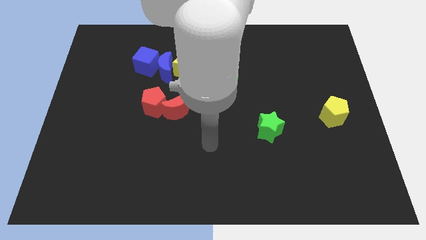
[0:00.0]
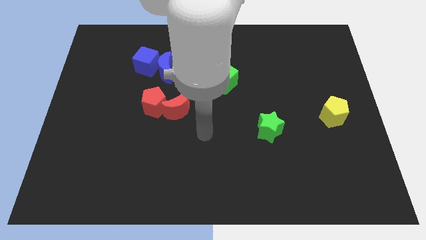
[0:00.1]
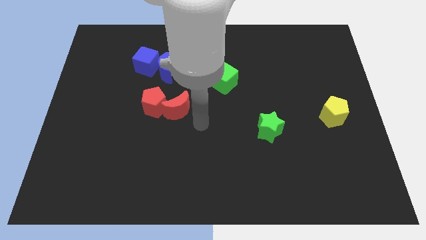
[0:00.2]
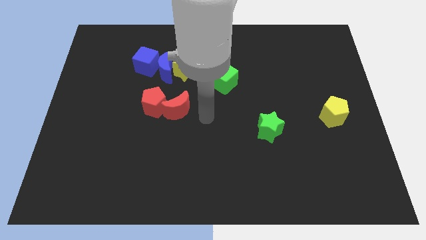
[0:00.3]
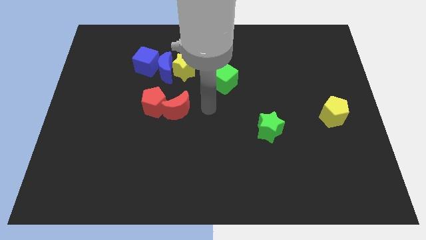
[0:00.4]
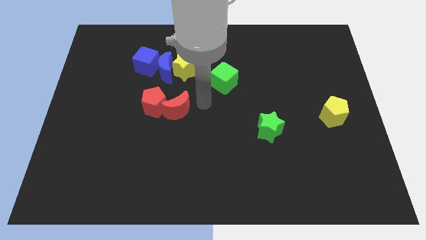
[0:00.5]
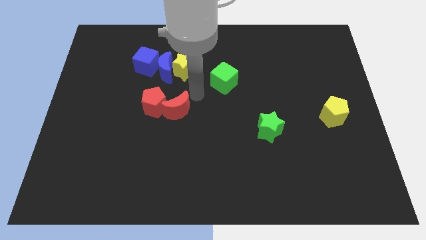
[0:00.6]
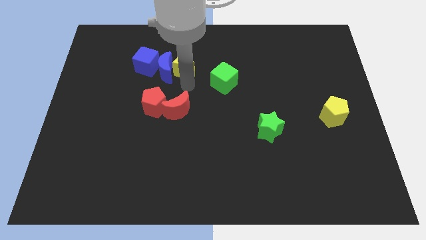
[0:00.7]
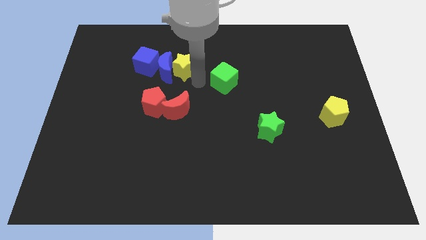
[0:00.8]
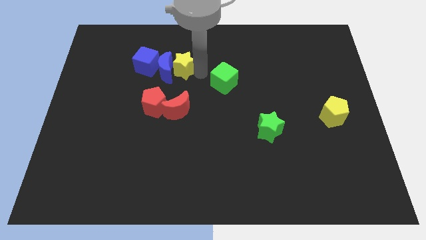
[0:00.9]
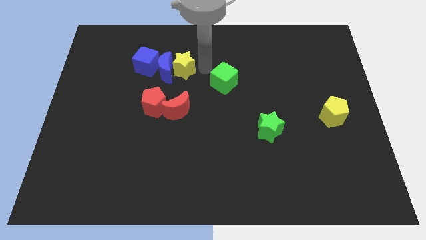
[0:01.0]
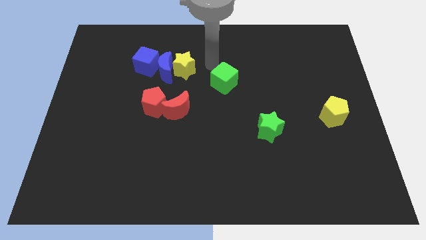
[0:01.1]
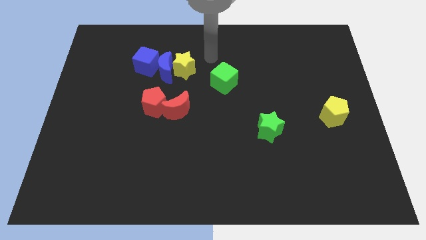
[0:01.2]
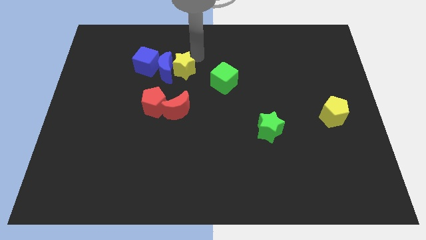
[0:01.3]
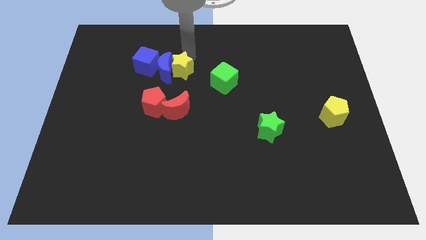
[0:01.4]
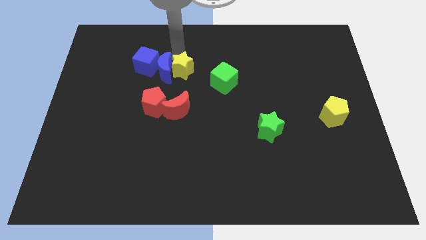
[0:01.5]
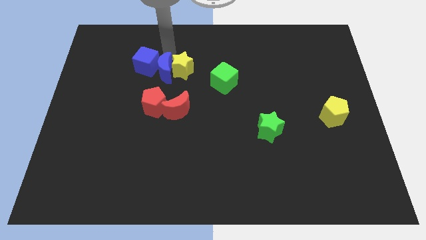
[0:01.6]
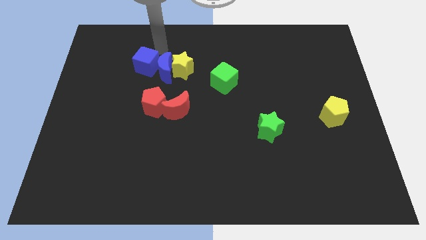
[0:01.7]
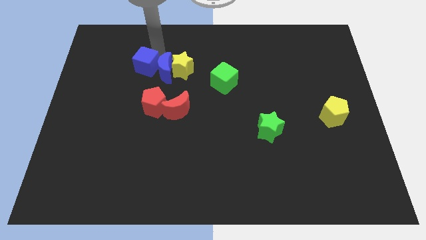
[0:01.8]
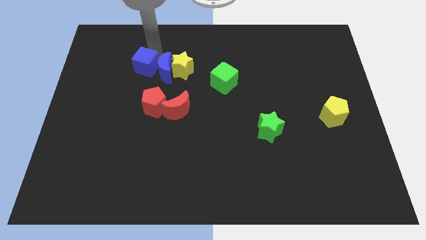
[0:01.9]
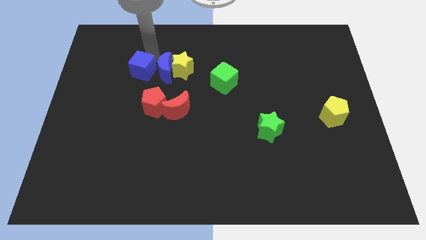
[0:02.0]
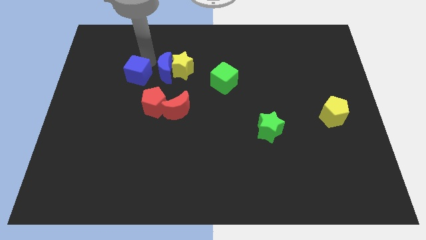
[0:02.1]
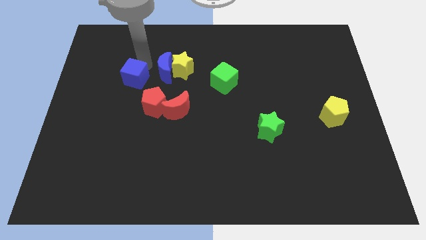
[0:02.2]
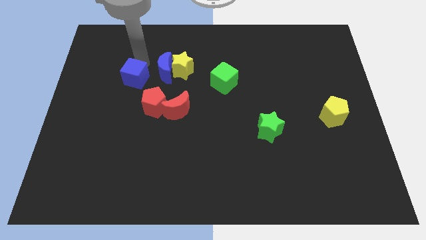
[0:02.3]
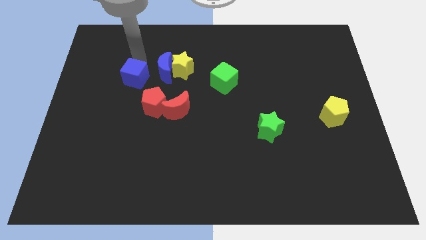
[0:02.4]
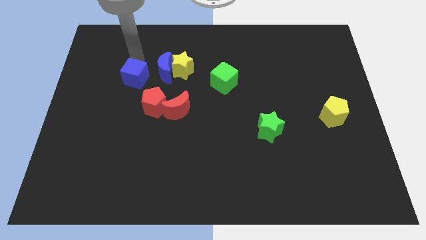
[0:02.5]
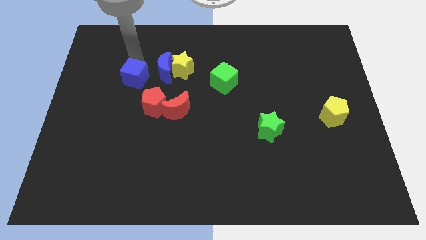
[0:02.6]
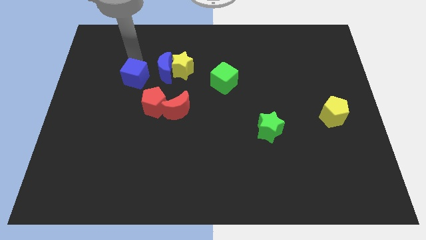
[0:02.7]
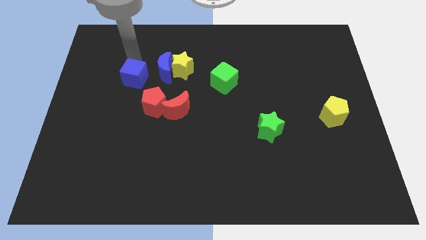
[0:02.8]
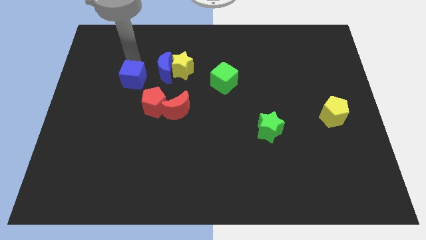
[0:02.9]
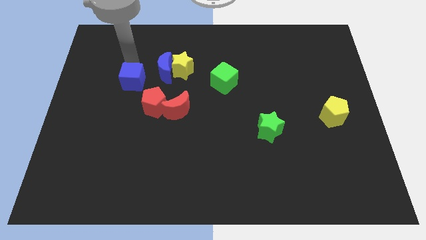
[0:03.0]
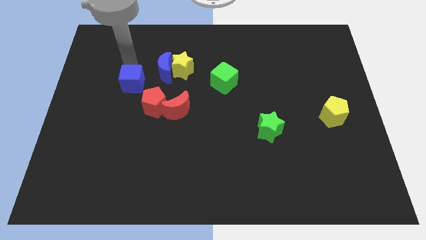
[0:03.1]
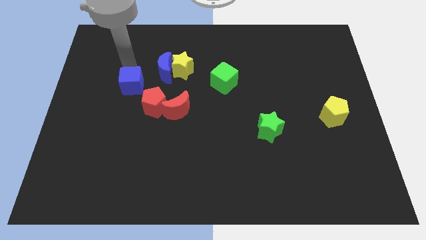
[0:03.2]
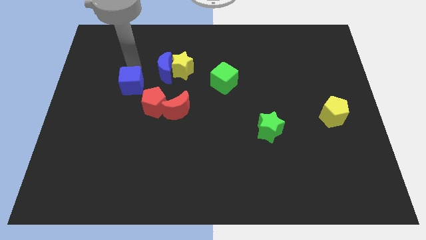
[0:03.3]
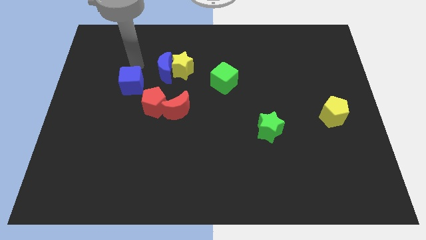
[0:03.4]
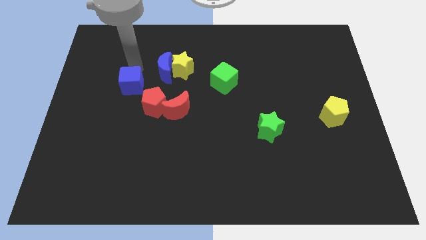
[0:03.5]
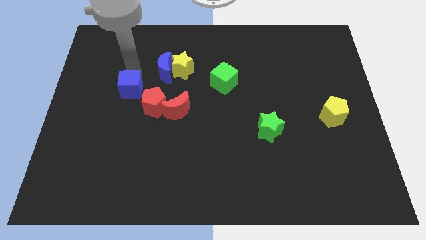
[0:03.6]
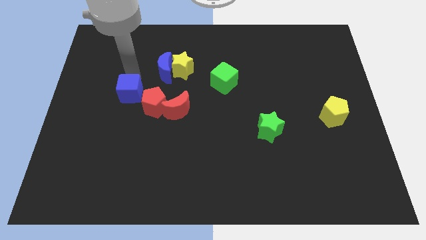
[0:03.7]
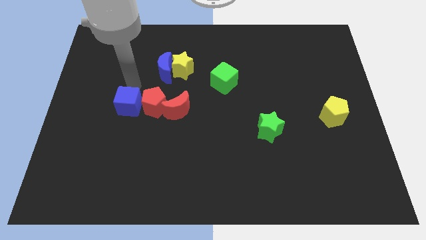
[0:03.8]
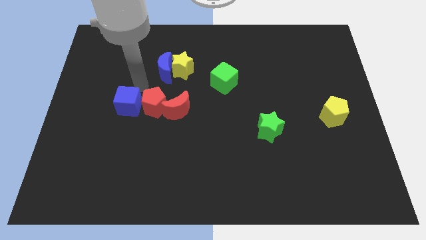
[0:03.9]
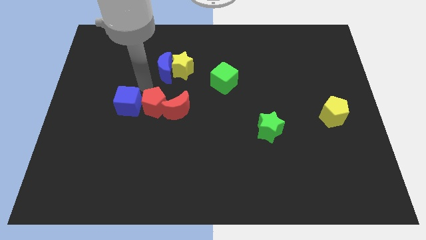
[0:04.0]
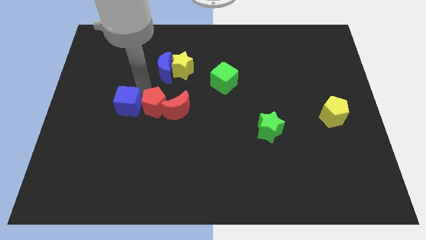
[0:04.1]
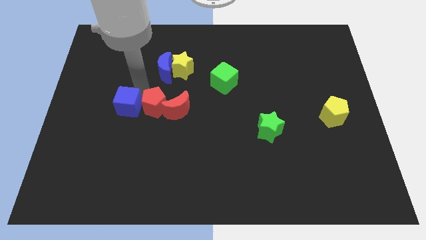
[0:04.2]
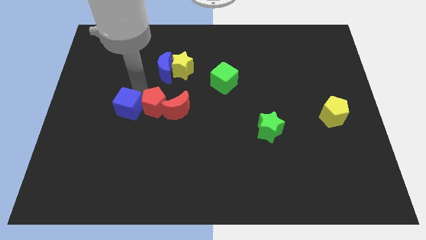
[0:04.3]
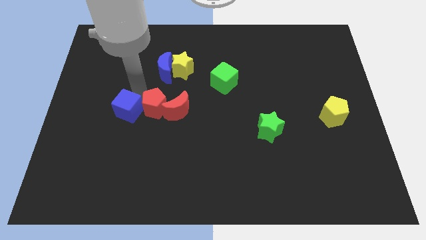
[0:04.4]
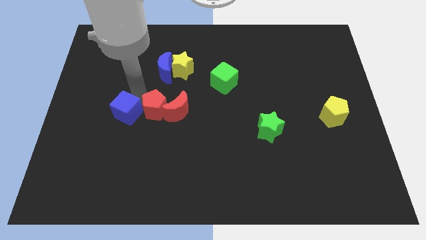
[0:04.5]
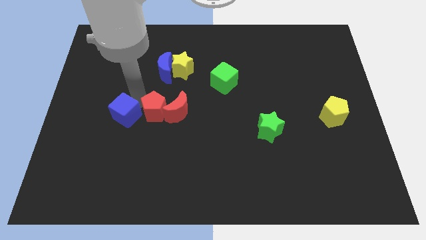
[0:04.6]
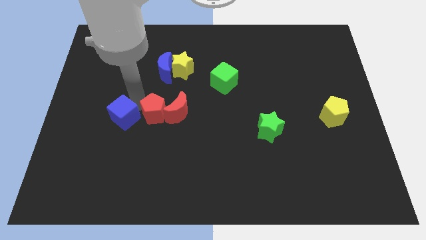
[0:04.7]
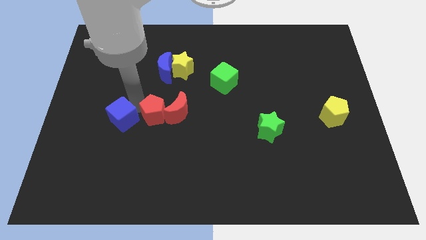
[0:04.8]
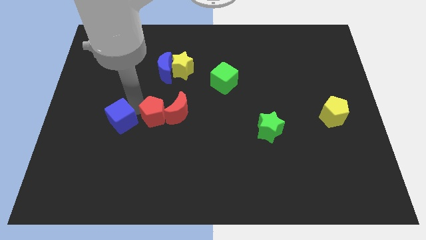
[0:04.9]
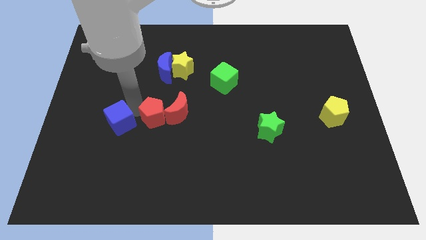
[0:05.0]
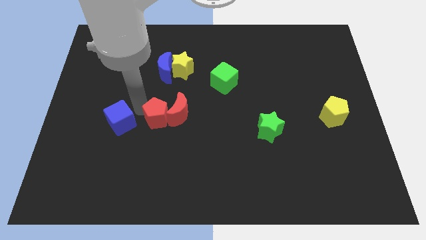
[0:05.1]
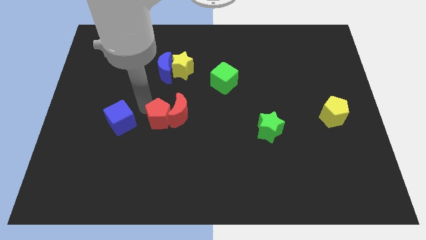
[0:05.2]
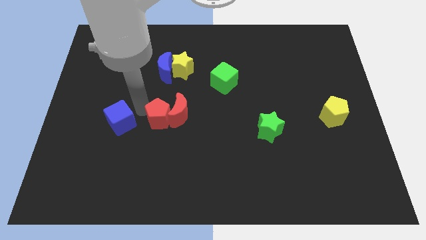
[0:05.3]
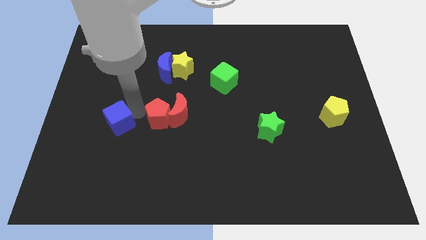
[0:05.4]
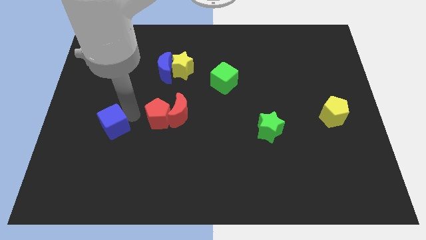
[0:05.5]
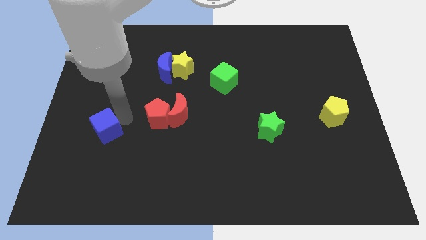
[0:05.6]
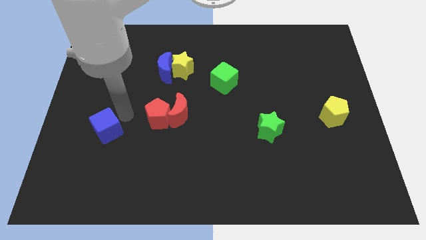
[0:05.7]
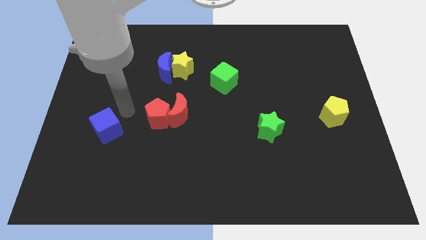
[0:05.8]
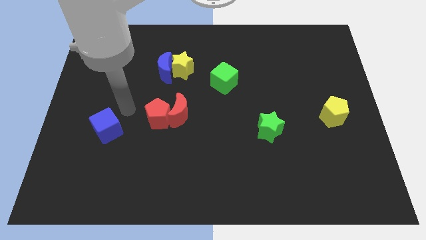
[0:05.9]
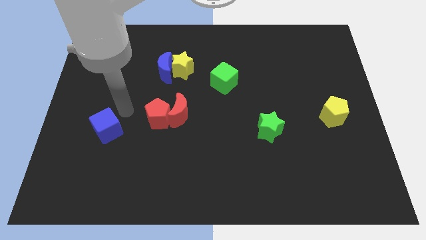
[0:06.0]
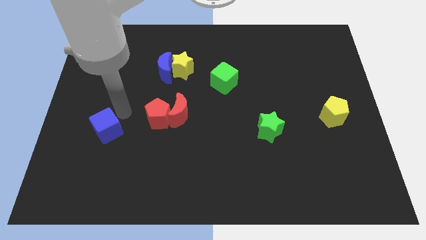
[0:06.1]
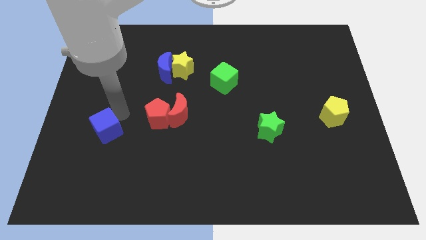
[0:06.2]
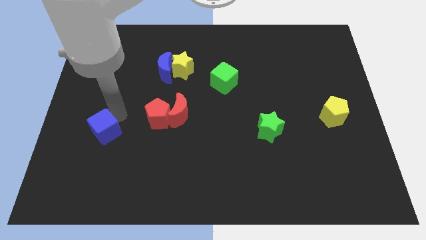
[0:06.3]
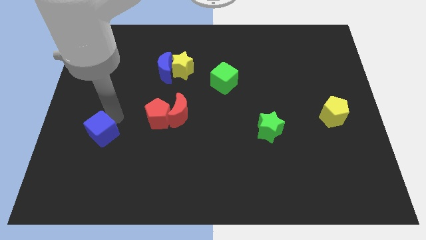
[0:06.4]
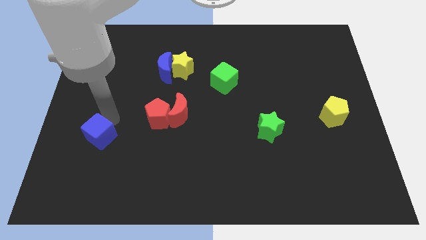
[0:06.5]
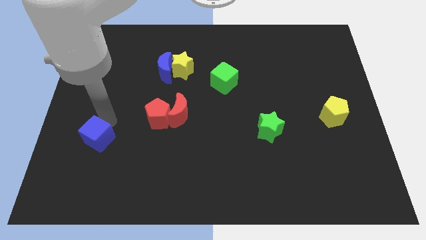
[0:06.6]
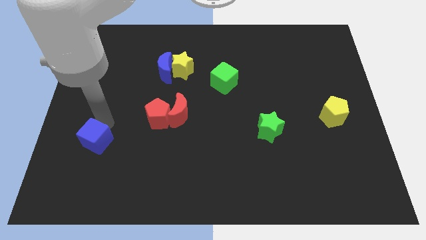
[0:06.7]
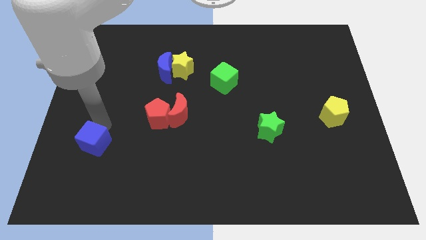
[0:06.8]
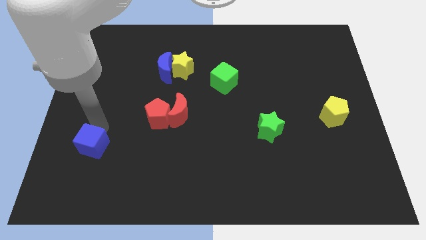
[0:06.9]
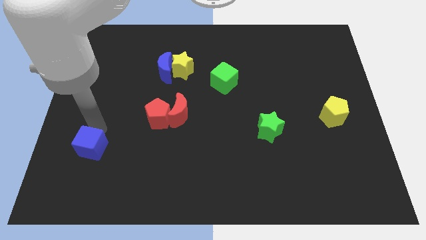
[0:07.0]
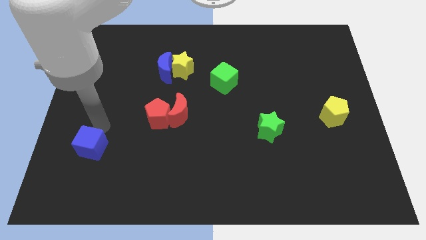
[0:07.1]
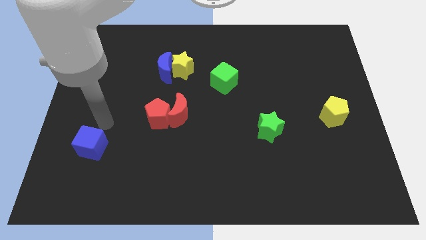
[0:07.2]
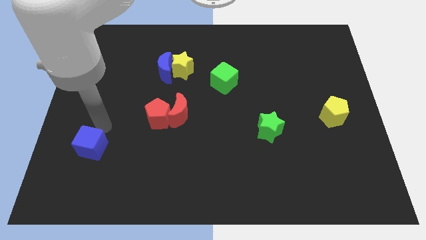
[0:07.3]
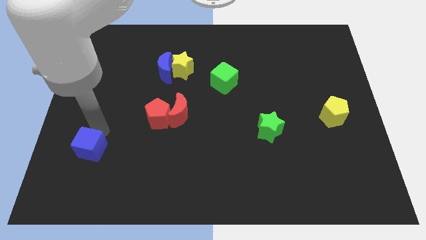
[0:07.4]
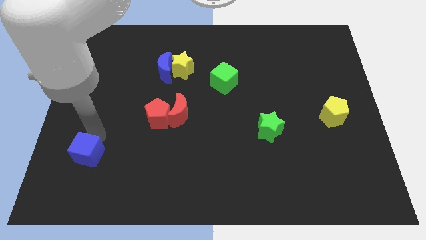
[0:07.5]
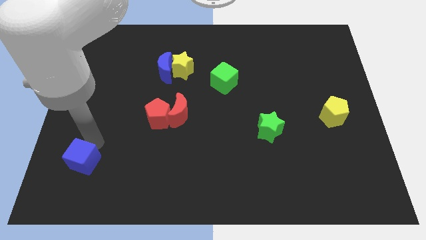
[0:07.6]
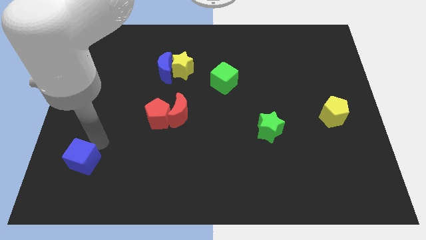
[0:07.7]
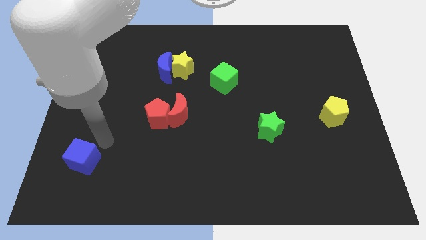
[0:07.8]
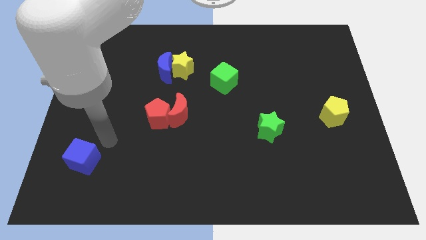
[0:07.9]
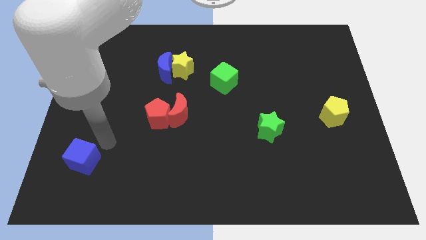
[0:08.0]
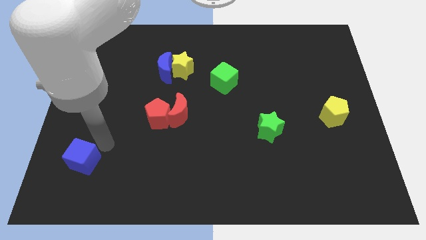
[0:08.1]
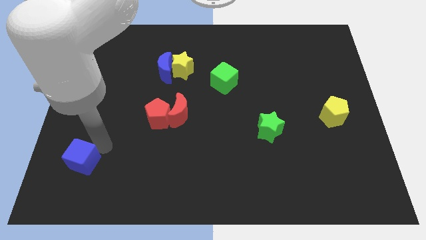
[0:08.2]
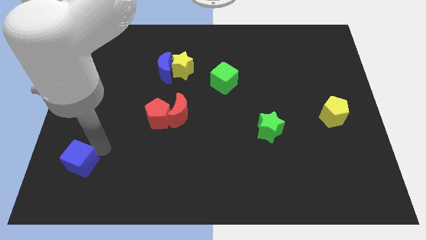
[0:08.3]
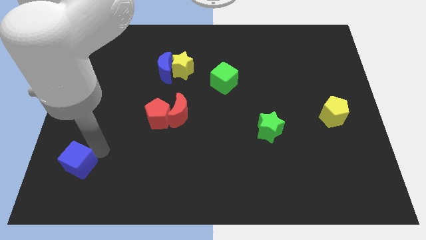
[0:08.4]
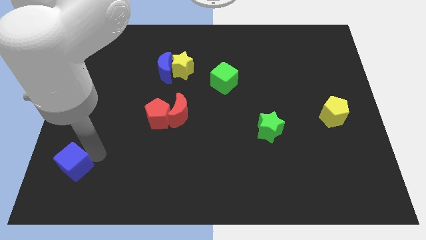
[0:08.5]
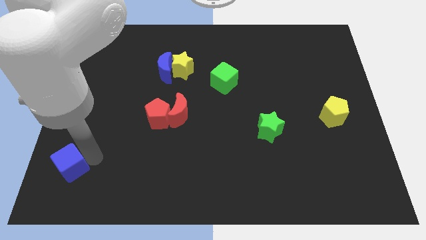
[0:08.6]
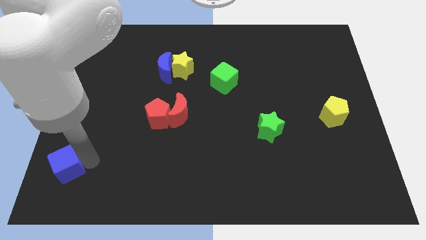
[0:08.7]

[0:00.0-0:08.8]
put the blue cube to the bottom left of the board
